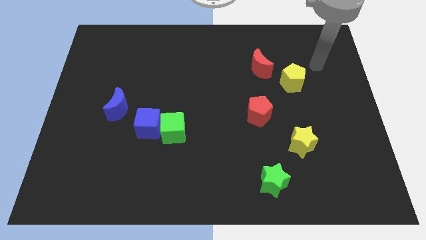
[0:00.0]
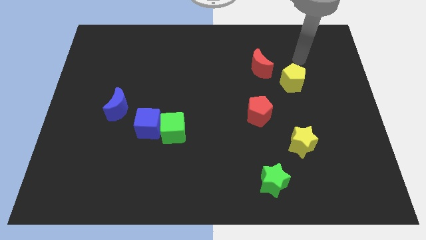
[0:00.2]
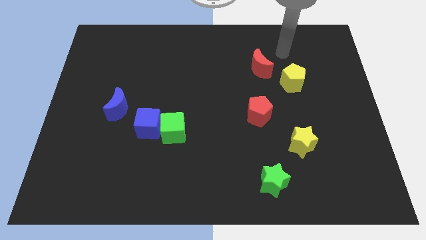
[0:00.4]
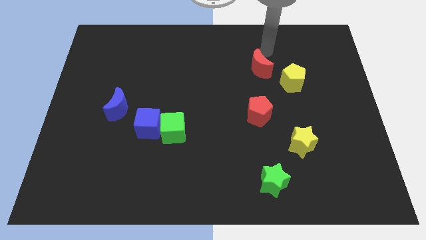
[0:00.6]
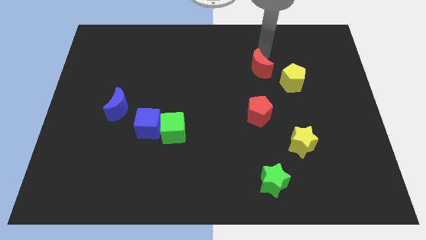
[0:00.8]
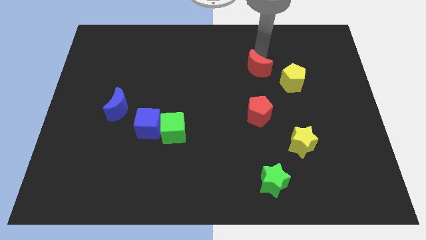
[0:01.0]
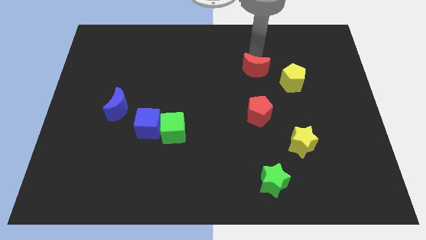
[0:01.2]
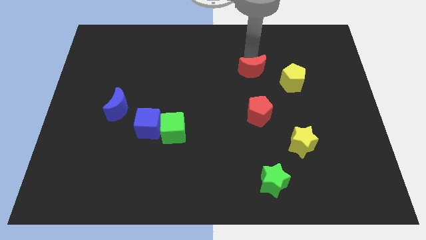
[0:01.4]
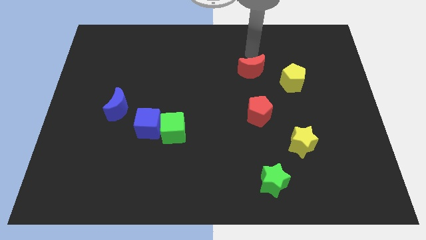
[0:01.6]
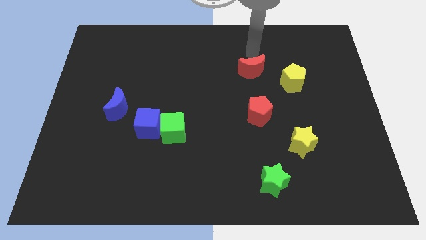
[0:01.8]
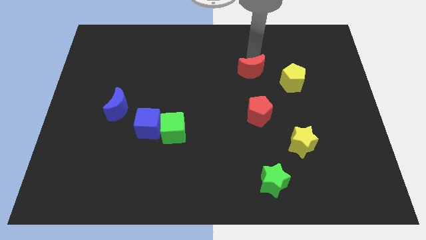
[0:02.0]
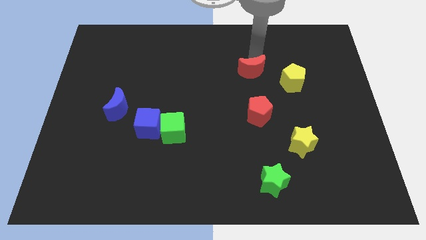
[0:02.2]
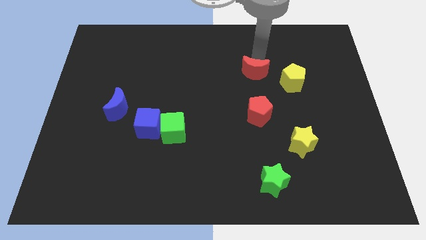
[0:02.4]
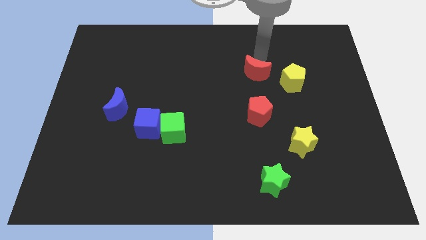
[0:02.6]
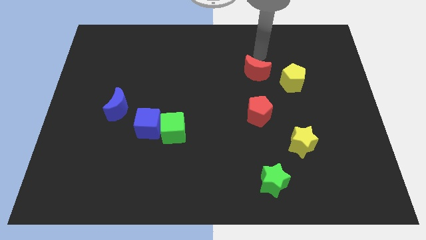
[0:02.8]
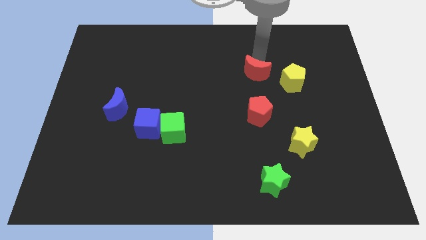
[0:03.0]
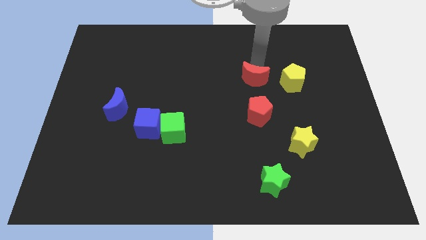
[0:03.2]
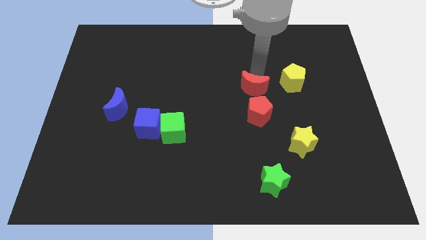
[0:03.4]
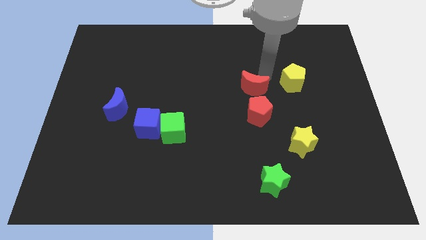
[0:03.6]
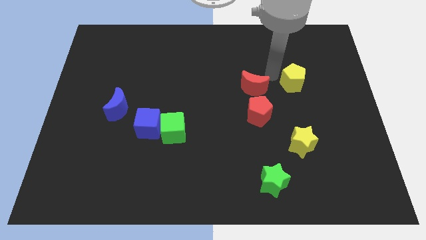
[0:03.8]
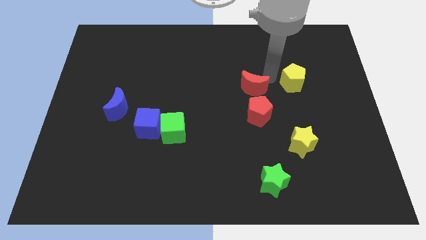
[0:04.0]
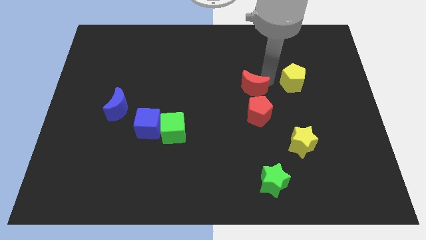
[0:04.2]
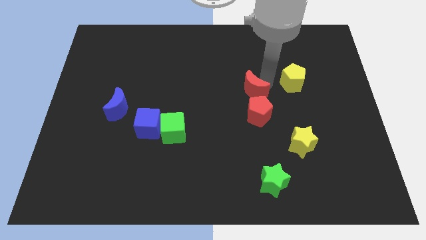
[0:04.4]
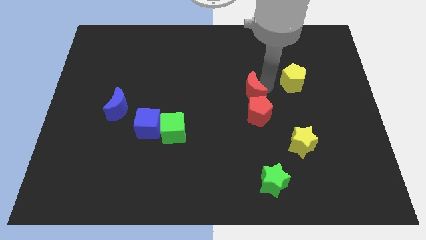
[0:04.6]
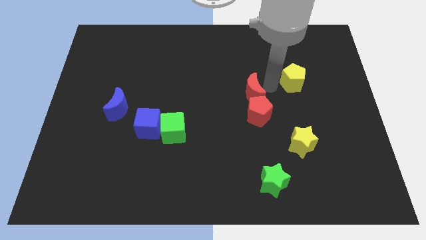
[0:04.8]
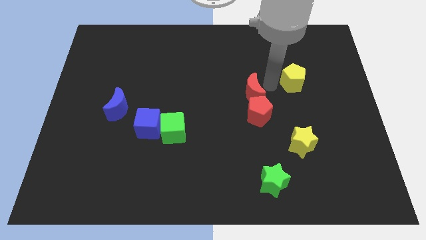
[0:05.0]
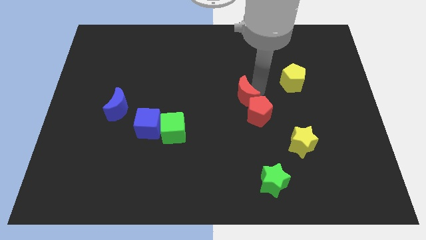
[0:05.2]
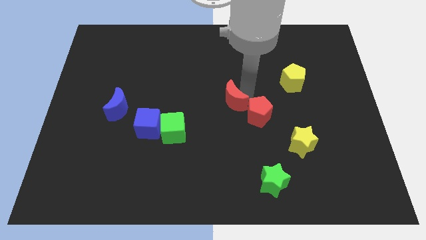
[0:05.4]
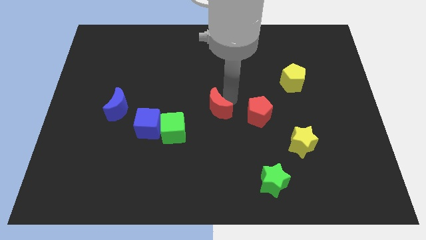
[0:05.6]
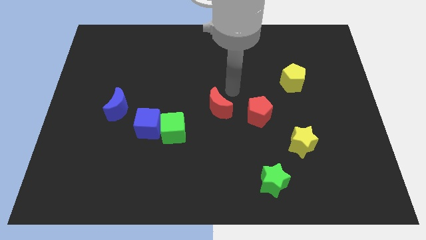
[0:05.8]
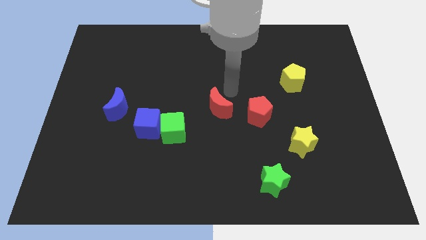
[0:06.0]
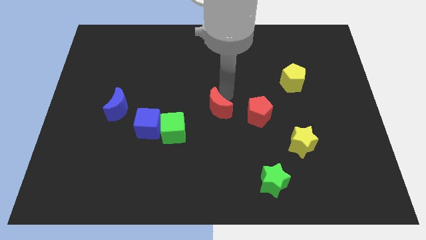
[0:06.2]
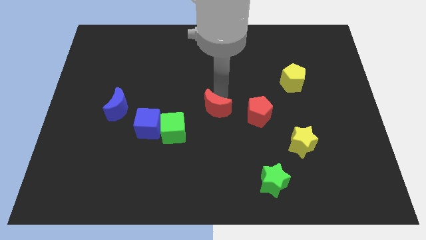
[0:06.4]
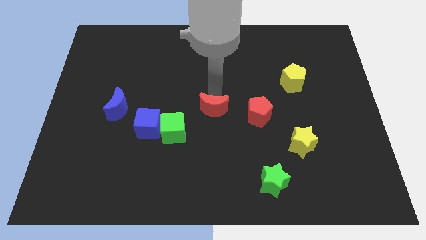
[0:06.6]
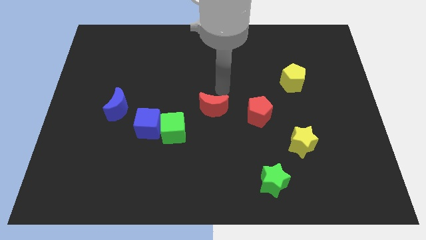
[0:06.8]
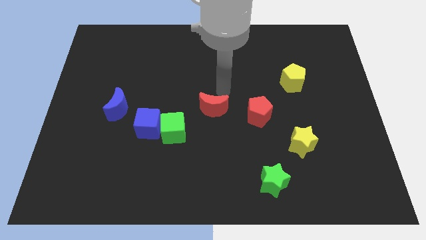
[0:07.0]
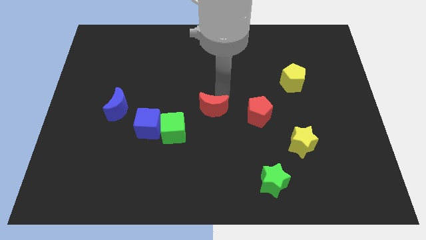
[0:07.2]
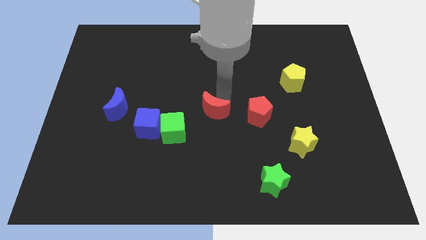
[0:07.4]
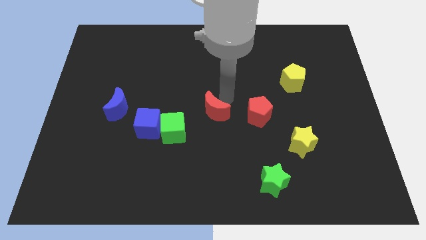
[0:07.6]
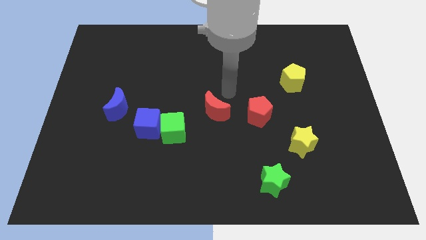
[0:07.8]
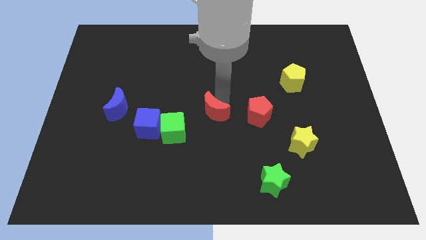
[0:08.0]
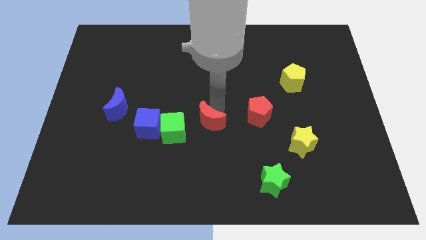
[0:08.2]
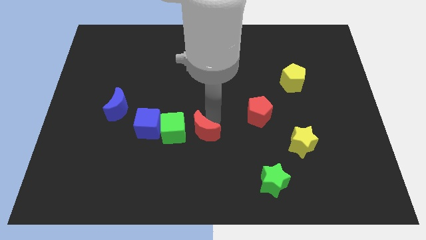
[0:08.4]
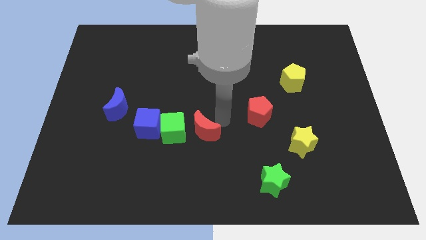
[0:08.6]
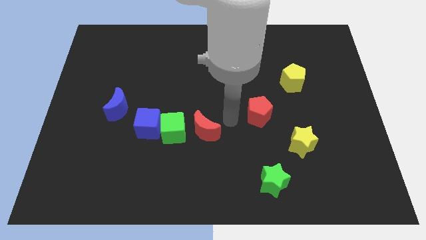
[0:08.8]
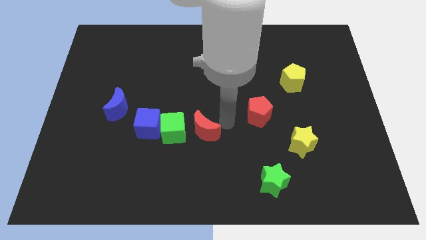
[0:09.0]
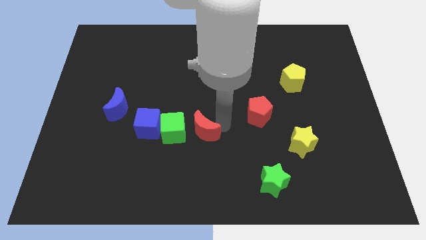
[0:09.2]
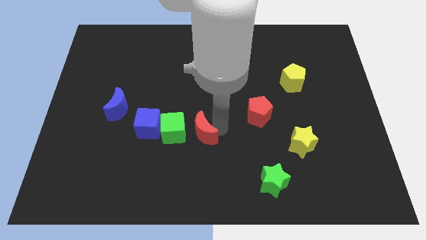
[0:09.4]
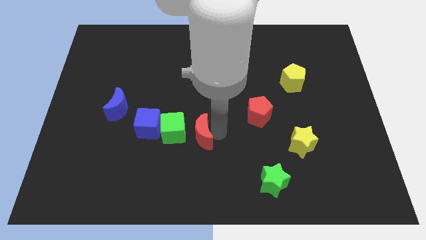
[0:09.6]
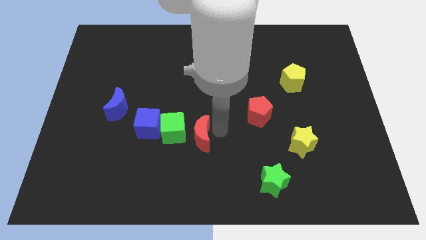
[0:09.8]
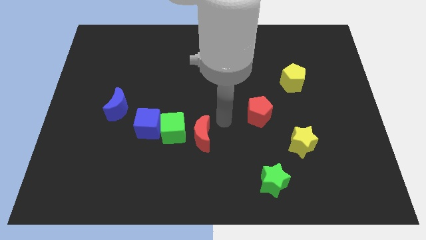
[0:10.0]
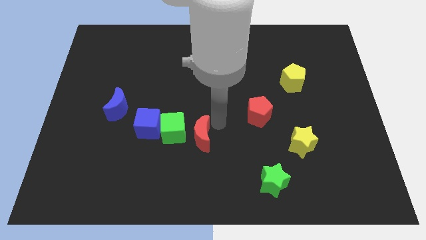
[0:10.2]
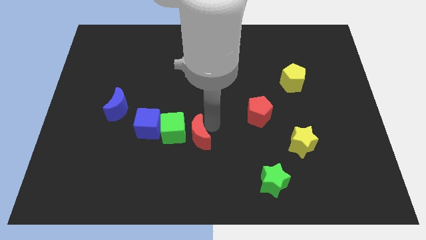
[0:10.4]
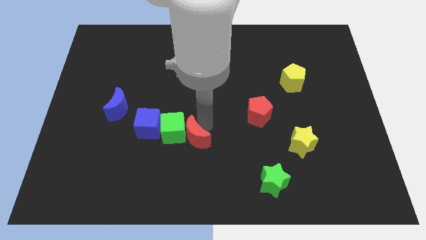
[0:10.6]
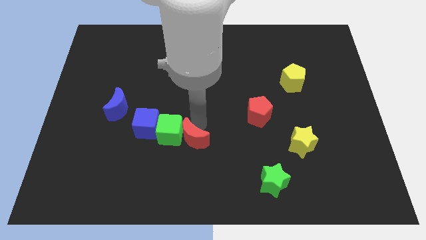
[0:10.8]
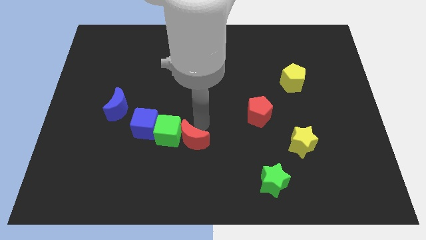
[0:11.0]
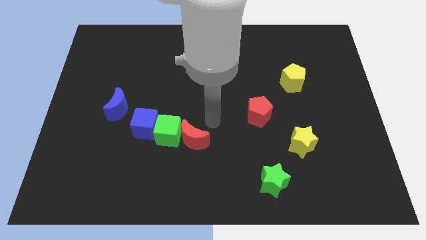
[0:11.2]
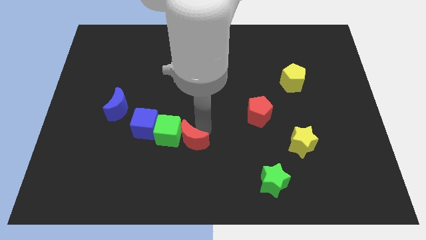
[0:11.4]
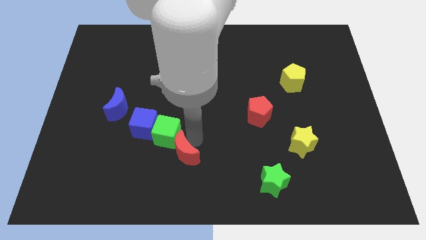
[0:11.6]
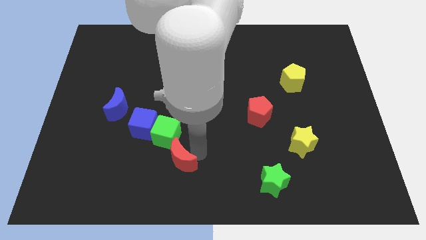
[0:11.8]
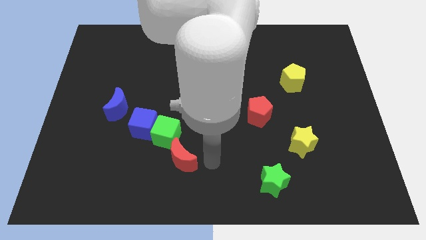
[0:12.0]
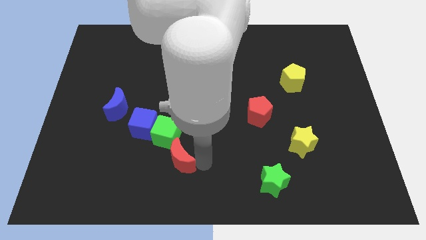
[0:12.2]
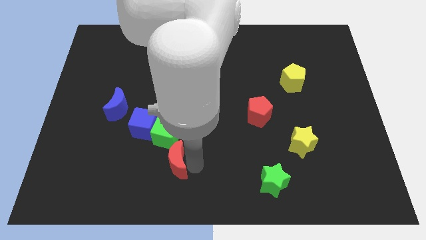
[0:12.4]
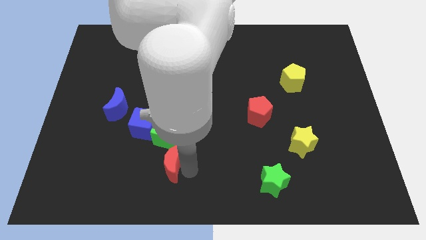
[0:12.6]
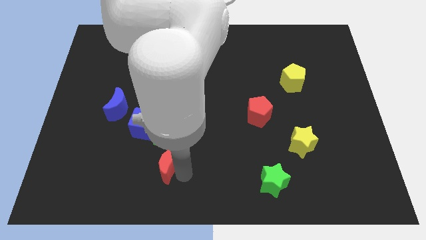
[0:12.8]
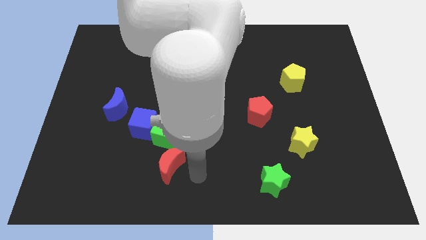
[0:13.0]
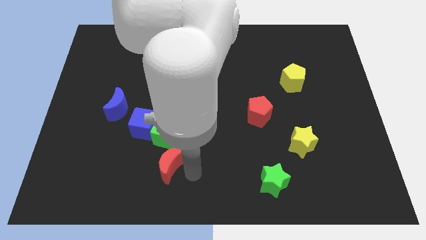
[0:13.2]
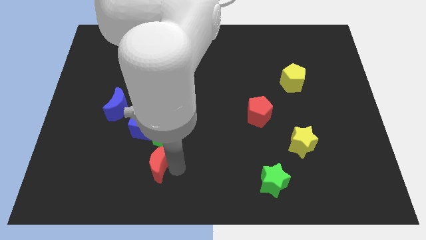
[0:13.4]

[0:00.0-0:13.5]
slide the red moon to the bottom left side of the green cube

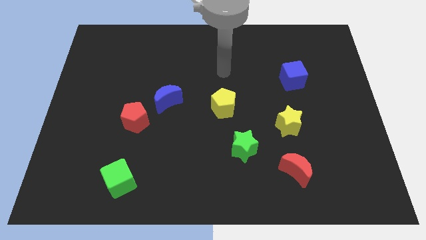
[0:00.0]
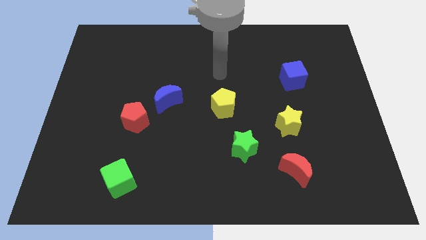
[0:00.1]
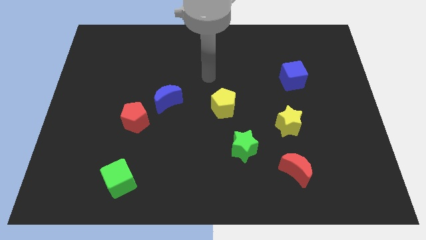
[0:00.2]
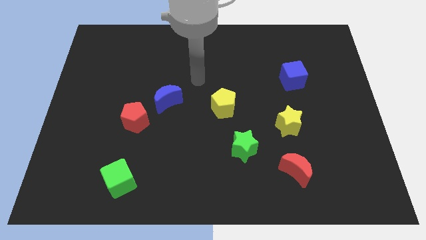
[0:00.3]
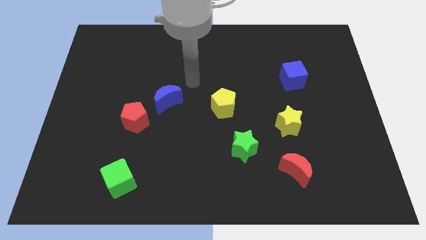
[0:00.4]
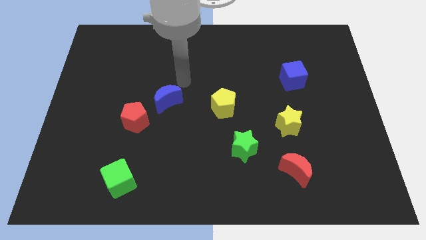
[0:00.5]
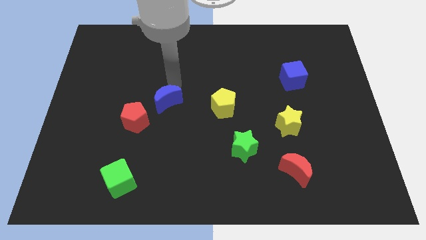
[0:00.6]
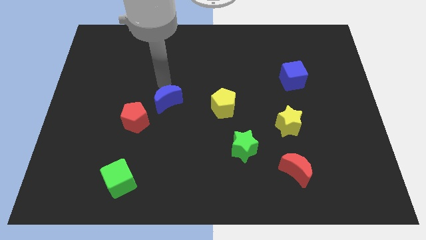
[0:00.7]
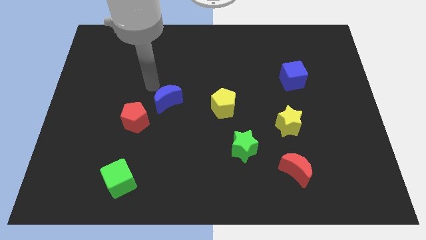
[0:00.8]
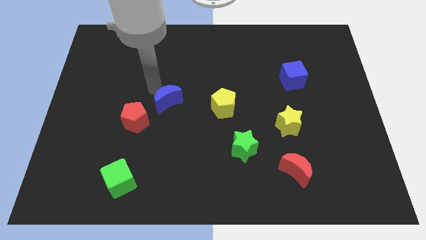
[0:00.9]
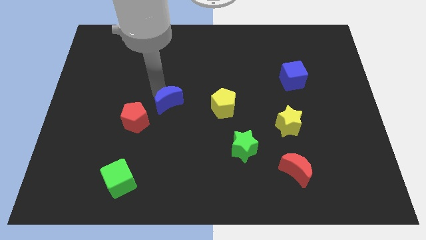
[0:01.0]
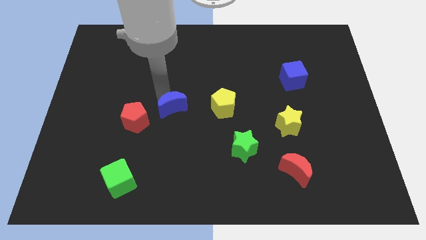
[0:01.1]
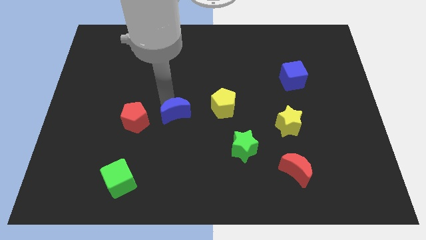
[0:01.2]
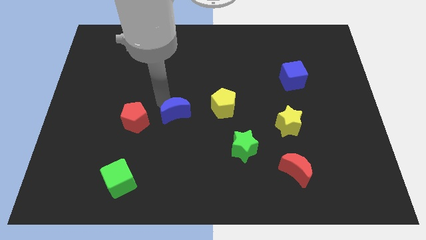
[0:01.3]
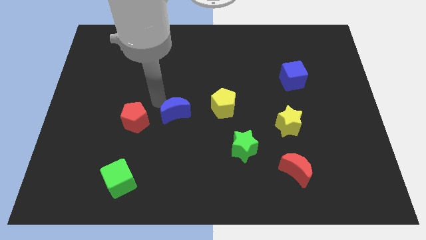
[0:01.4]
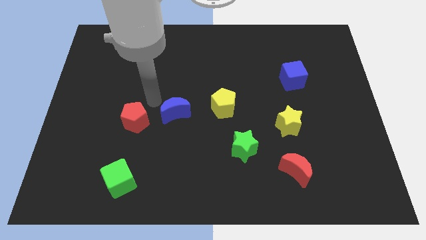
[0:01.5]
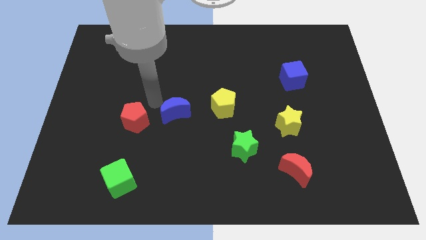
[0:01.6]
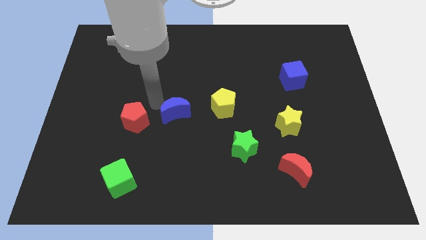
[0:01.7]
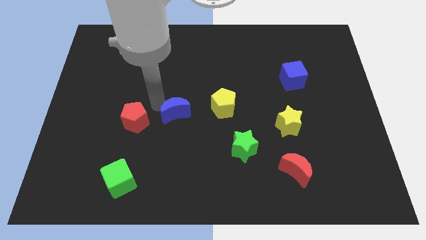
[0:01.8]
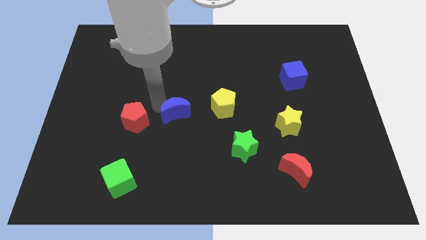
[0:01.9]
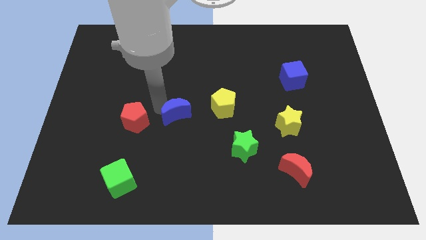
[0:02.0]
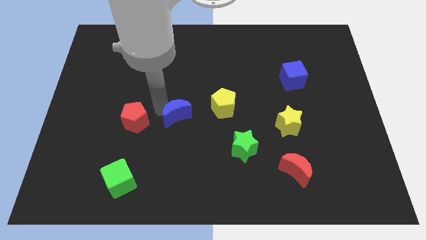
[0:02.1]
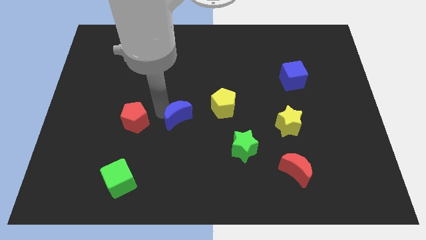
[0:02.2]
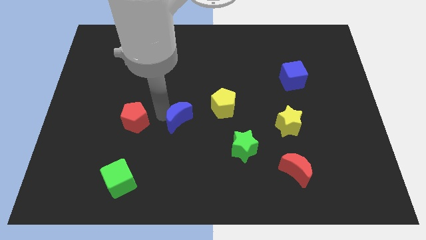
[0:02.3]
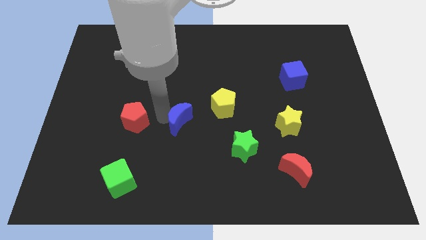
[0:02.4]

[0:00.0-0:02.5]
push the blue moon diagonally down and to the left of the yellow pentagon
